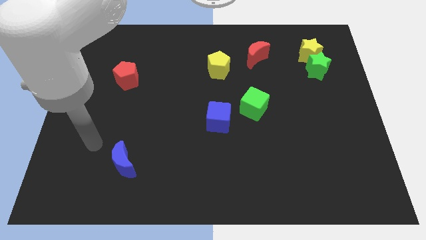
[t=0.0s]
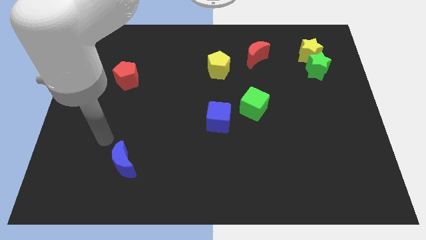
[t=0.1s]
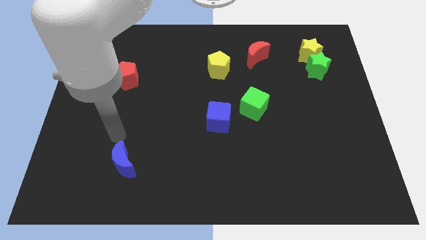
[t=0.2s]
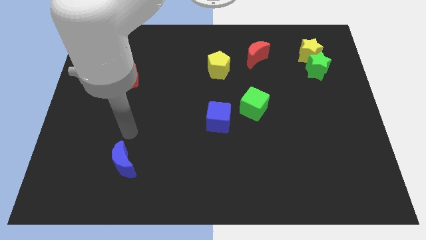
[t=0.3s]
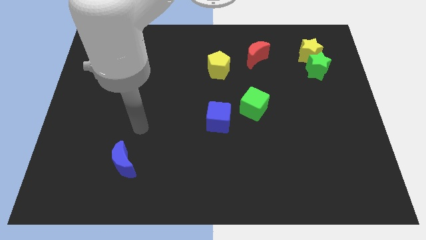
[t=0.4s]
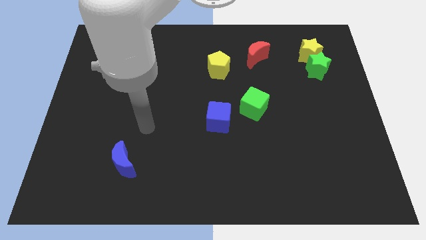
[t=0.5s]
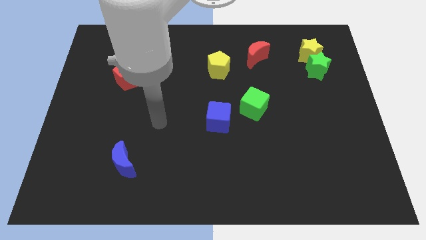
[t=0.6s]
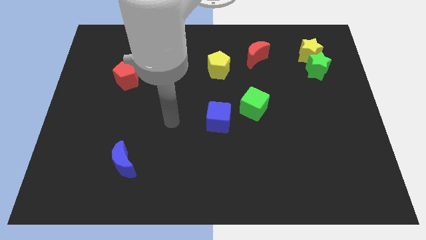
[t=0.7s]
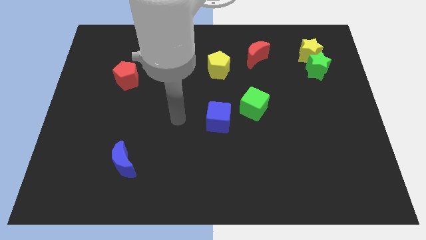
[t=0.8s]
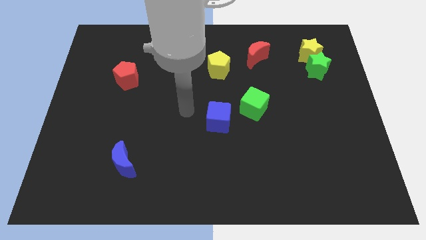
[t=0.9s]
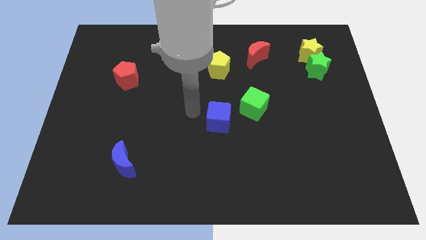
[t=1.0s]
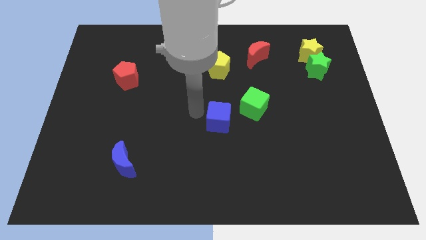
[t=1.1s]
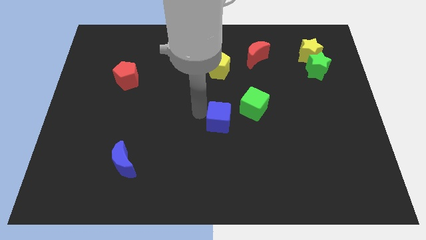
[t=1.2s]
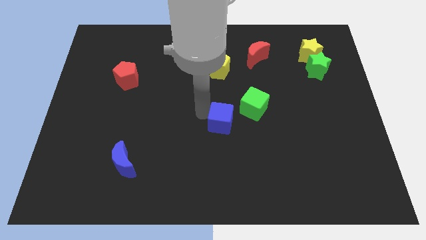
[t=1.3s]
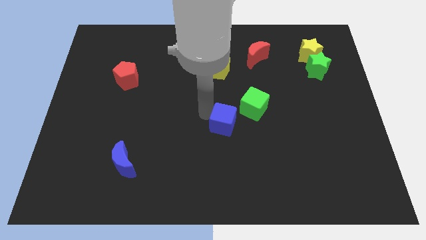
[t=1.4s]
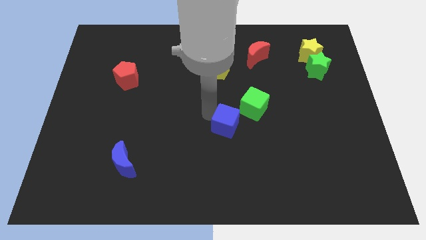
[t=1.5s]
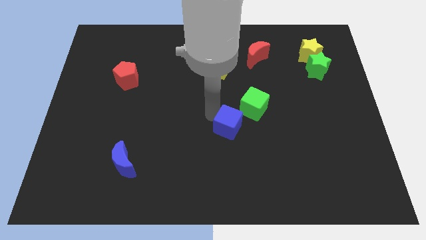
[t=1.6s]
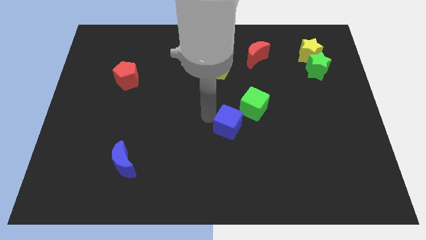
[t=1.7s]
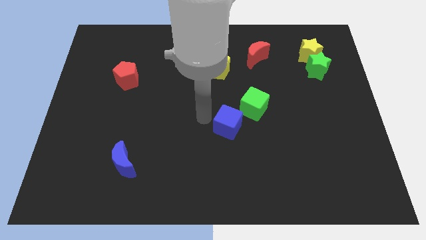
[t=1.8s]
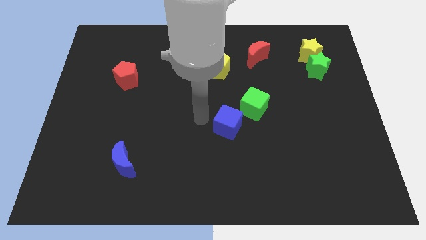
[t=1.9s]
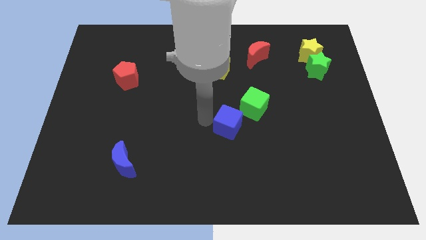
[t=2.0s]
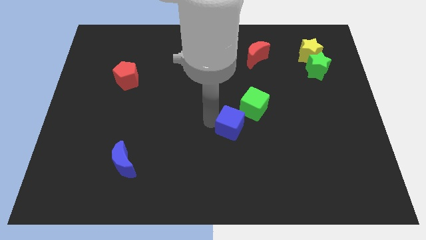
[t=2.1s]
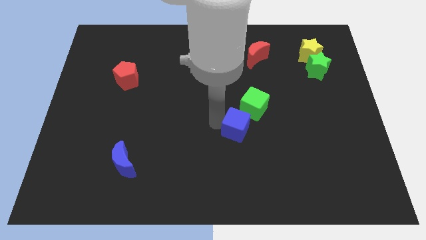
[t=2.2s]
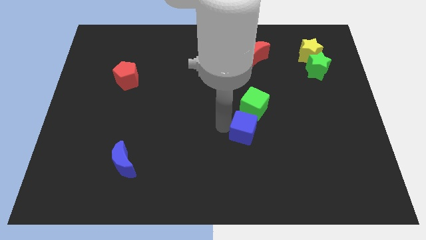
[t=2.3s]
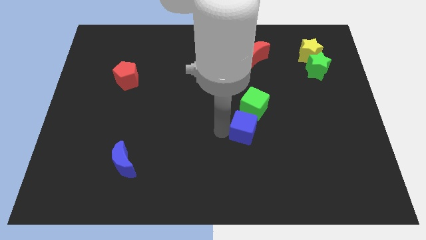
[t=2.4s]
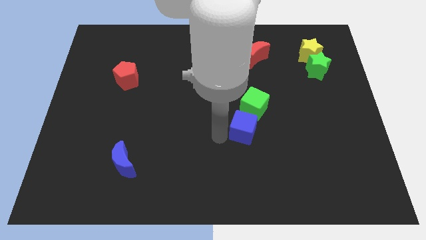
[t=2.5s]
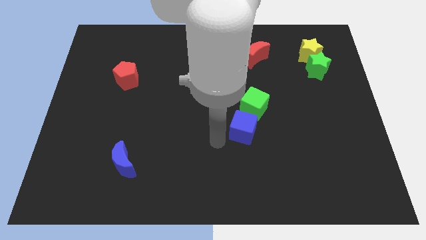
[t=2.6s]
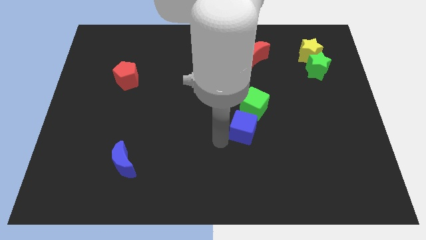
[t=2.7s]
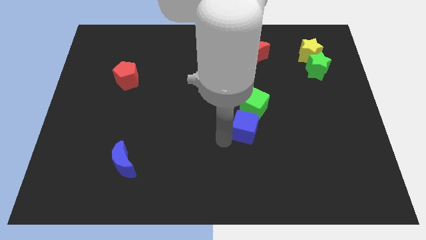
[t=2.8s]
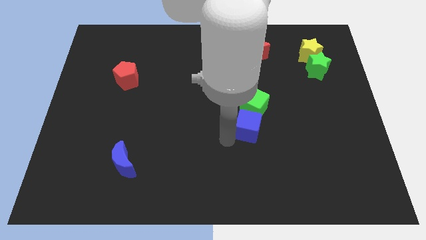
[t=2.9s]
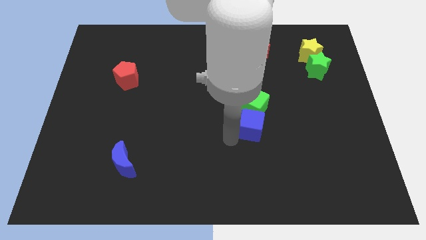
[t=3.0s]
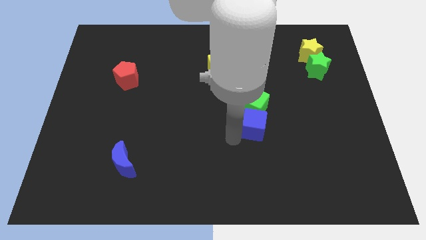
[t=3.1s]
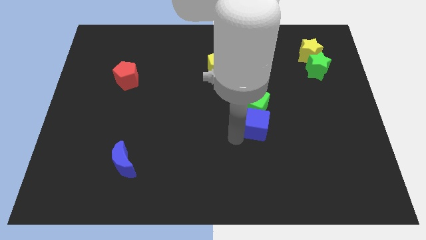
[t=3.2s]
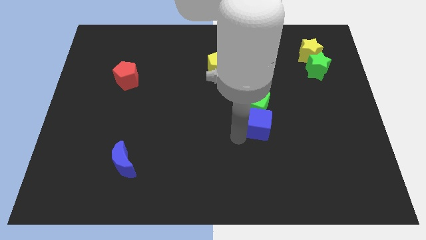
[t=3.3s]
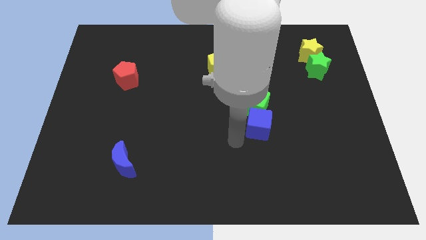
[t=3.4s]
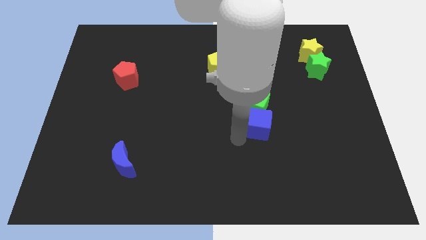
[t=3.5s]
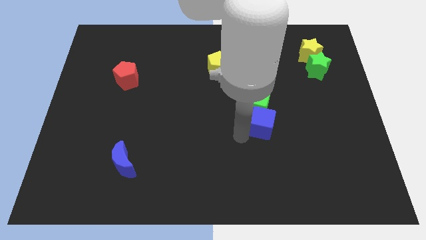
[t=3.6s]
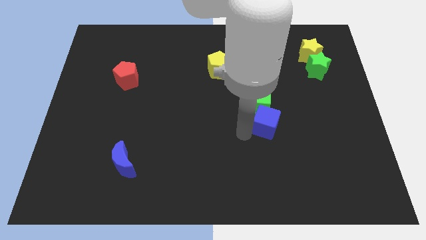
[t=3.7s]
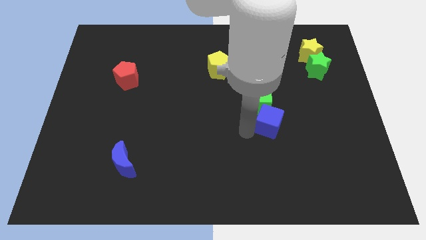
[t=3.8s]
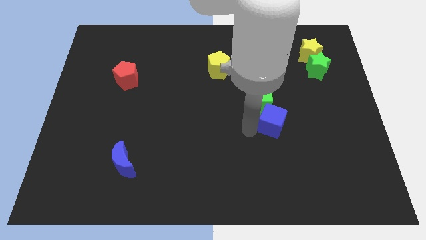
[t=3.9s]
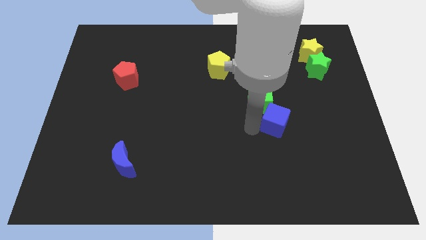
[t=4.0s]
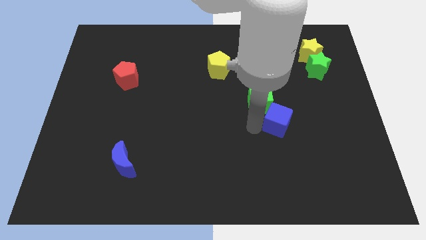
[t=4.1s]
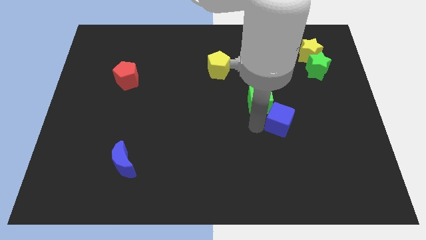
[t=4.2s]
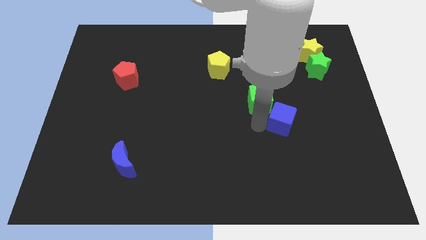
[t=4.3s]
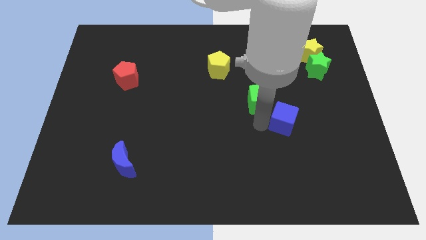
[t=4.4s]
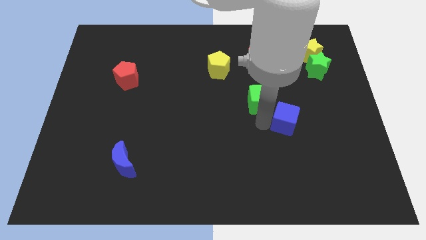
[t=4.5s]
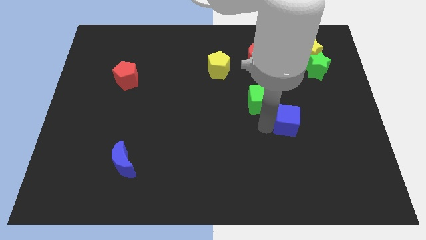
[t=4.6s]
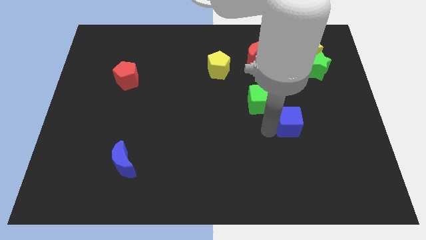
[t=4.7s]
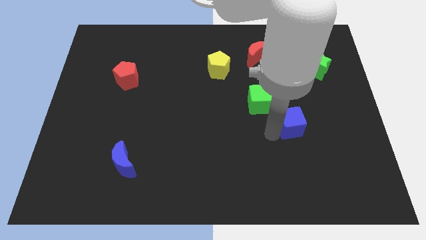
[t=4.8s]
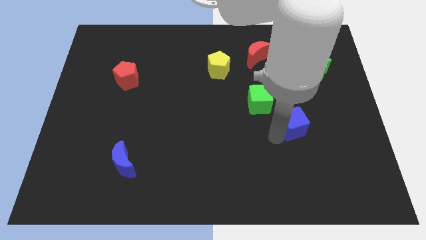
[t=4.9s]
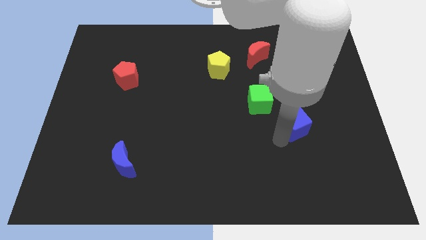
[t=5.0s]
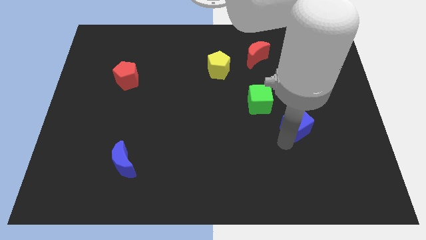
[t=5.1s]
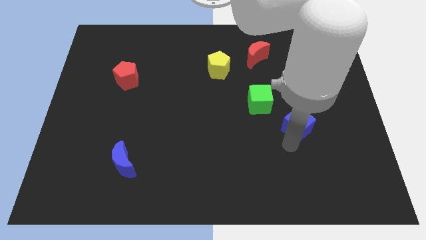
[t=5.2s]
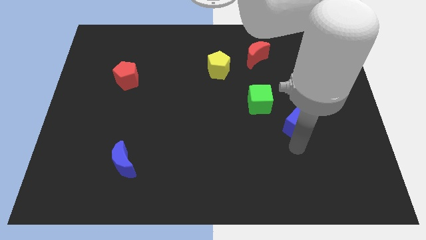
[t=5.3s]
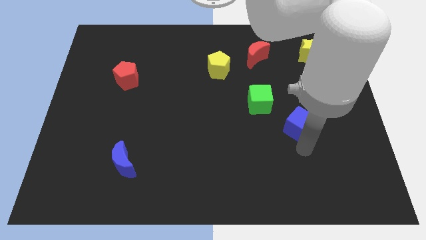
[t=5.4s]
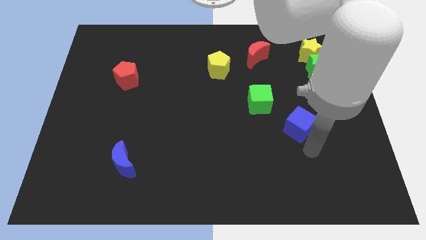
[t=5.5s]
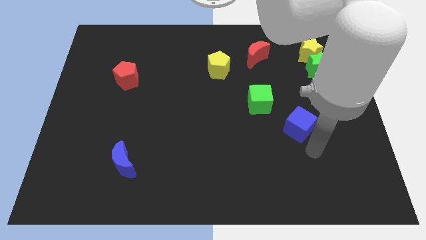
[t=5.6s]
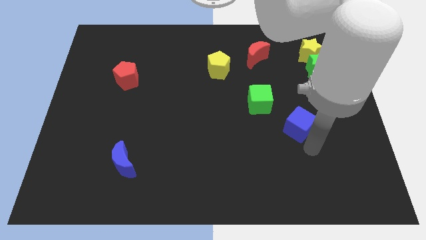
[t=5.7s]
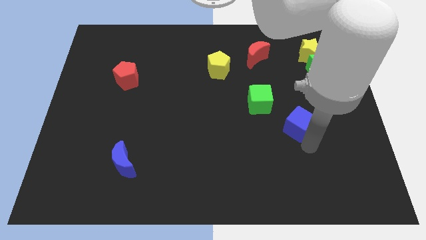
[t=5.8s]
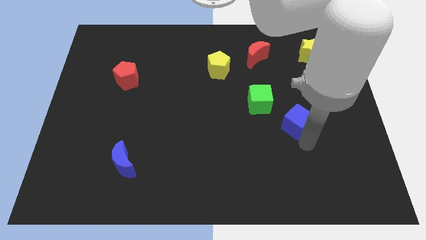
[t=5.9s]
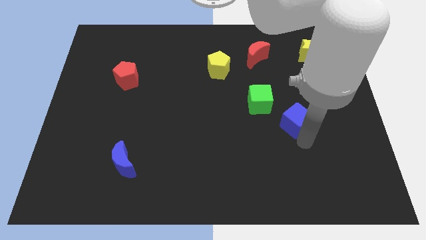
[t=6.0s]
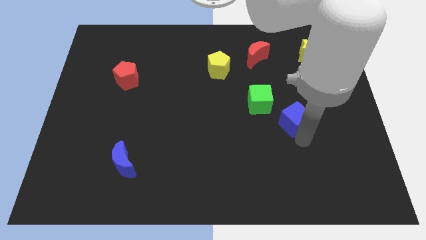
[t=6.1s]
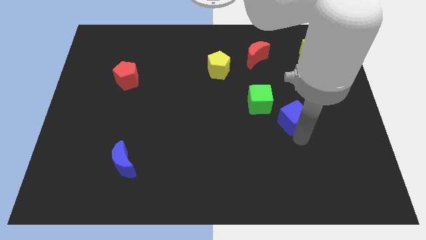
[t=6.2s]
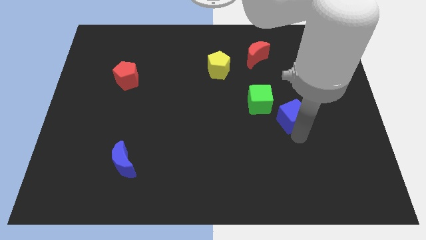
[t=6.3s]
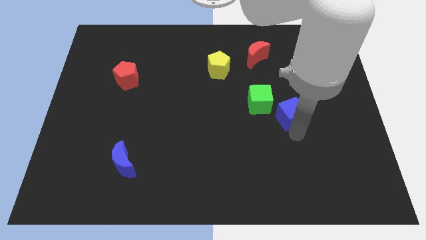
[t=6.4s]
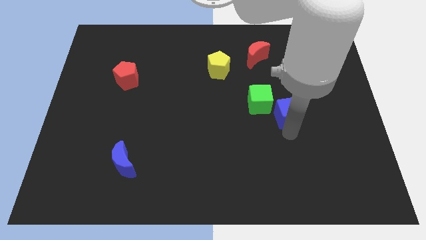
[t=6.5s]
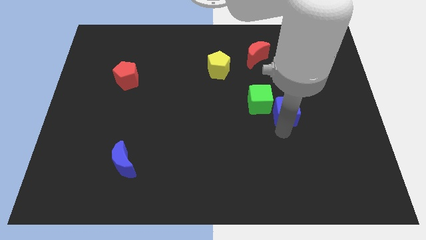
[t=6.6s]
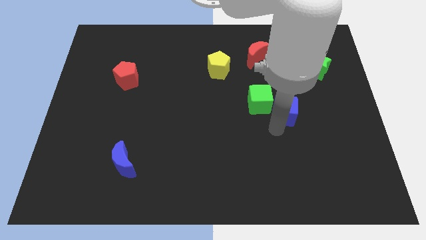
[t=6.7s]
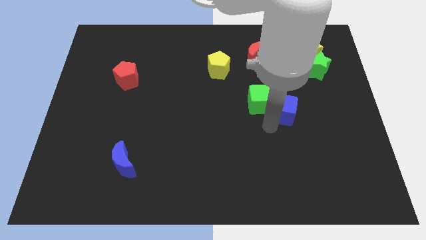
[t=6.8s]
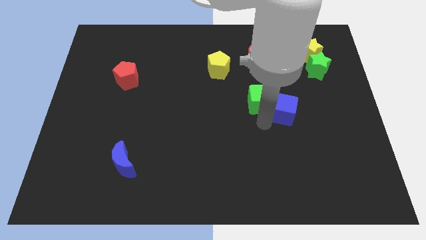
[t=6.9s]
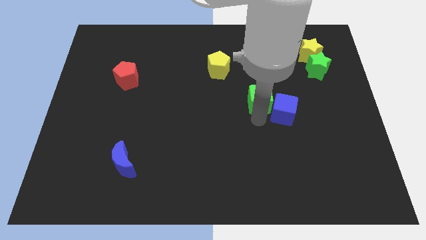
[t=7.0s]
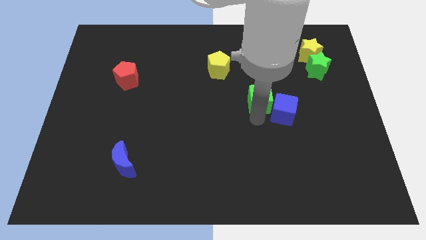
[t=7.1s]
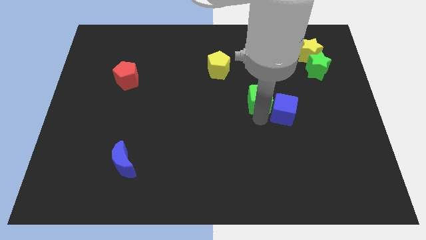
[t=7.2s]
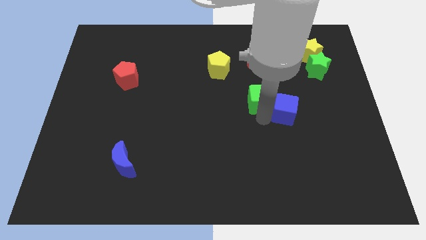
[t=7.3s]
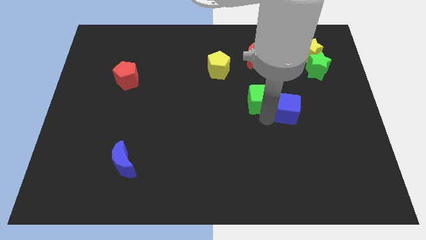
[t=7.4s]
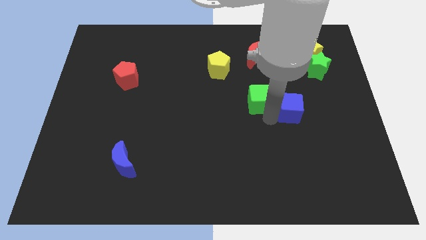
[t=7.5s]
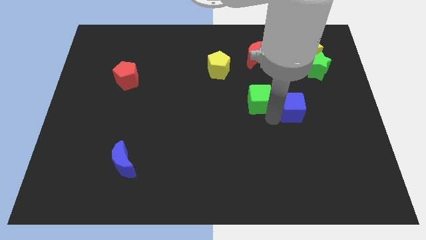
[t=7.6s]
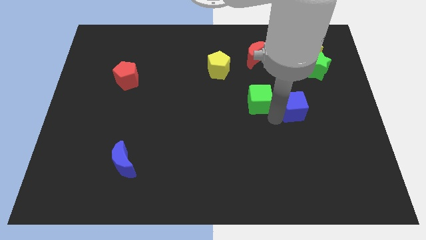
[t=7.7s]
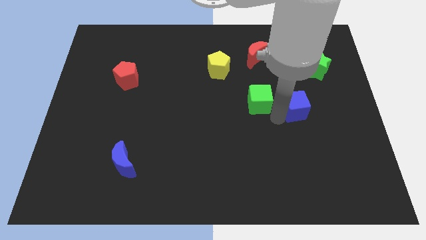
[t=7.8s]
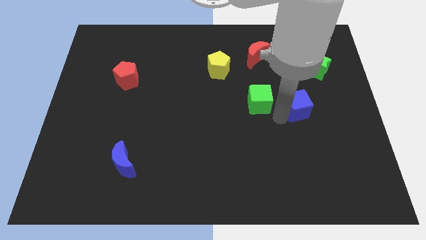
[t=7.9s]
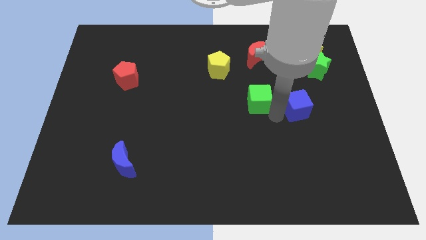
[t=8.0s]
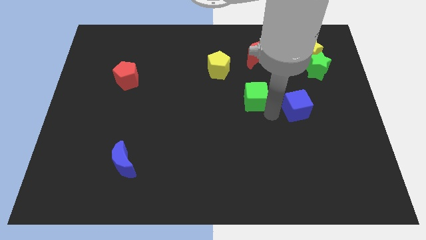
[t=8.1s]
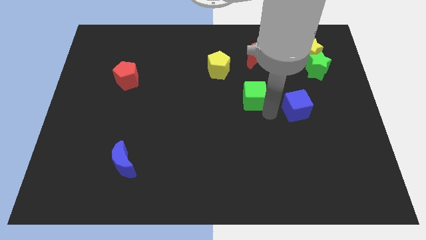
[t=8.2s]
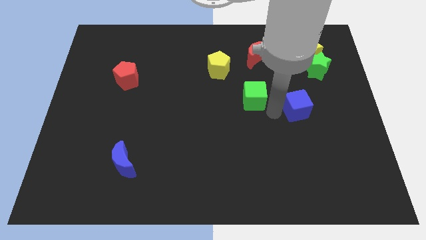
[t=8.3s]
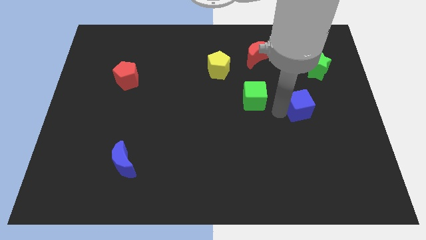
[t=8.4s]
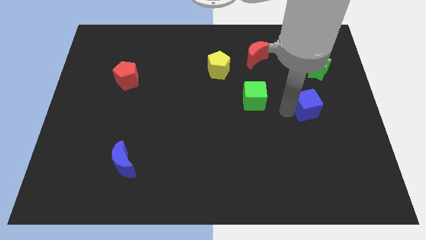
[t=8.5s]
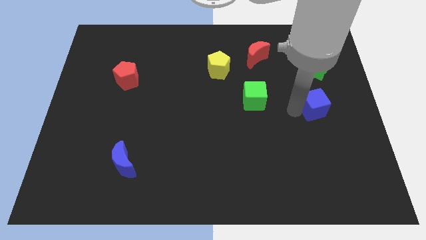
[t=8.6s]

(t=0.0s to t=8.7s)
slide the blue cube to the bottom side of the green star
